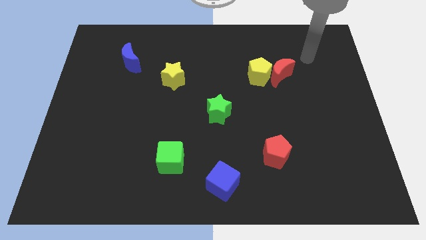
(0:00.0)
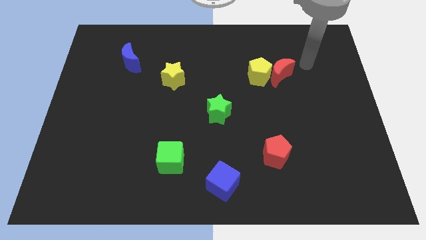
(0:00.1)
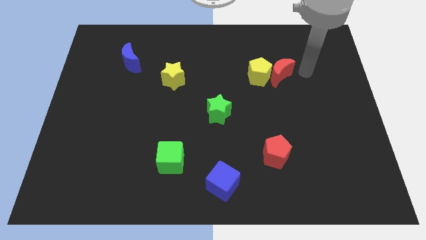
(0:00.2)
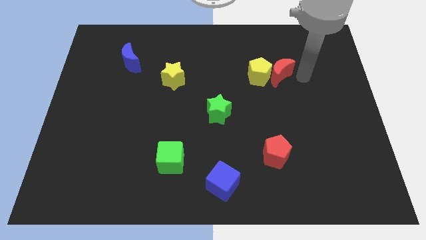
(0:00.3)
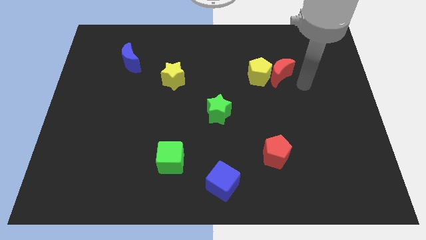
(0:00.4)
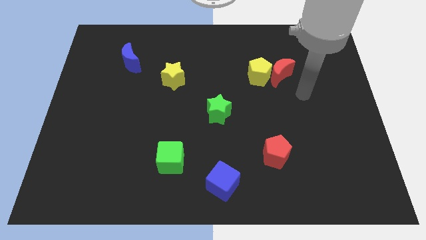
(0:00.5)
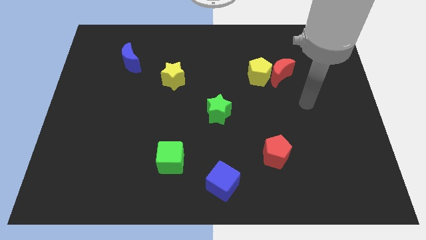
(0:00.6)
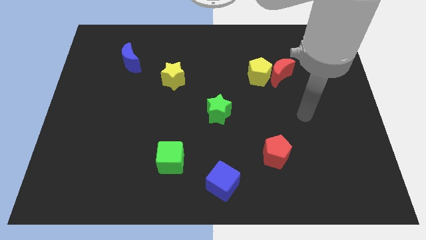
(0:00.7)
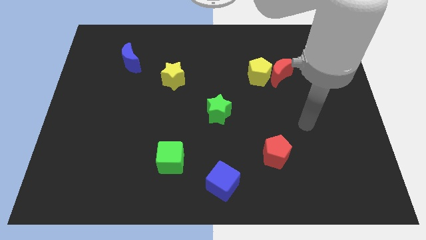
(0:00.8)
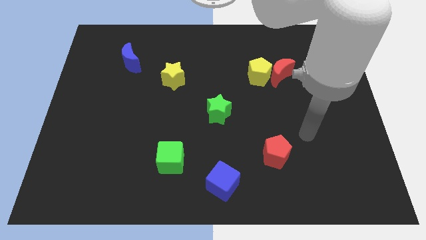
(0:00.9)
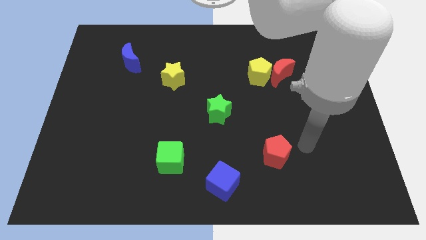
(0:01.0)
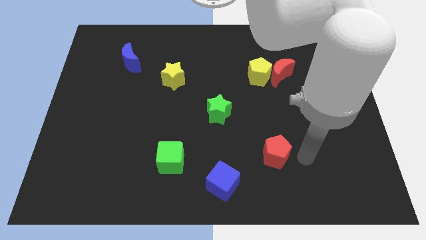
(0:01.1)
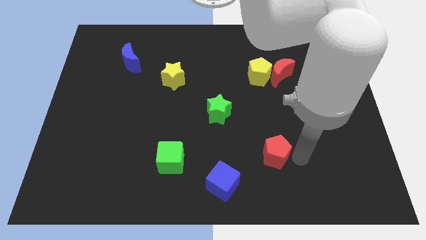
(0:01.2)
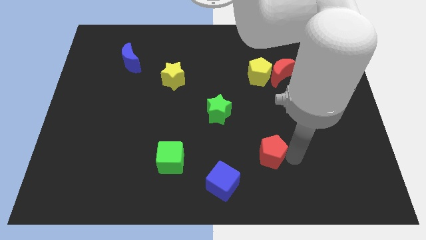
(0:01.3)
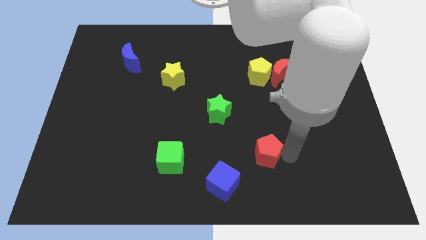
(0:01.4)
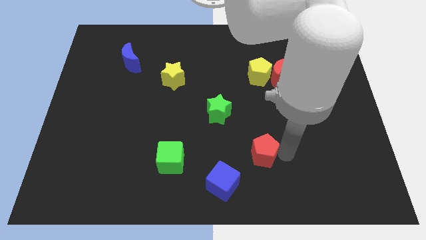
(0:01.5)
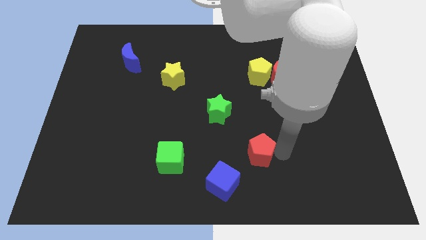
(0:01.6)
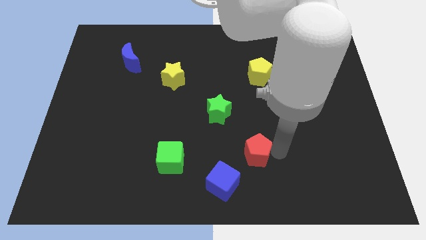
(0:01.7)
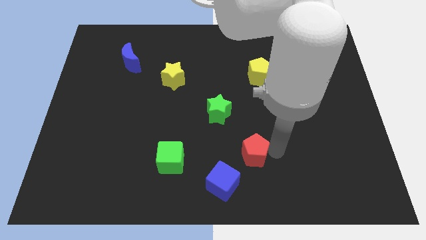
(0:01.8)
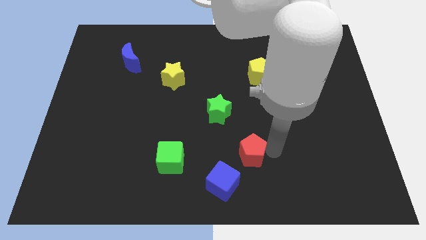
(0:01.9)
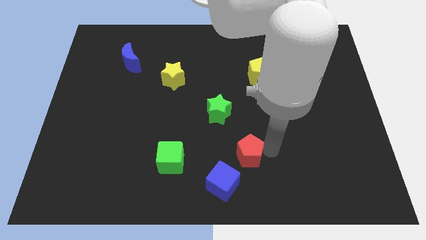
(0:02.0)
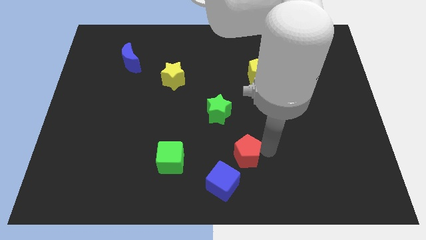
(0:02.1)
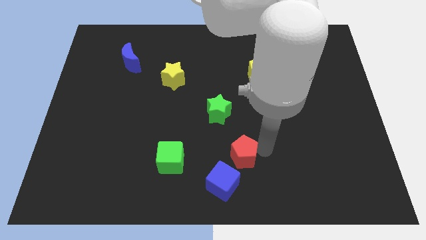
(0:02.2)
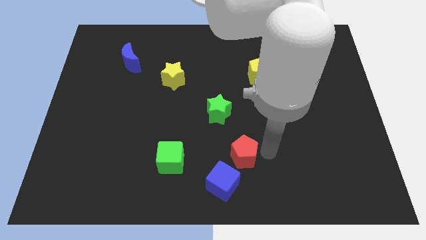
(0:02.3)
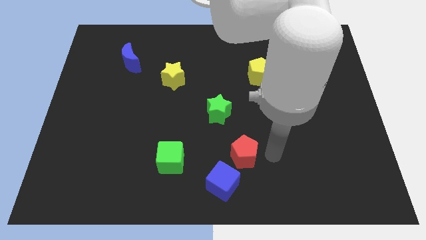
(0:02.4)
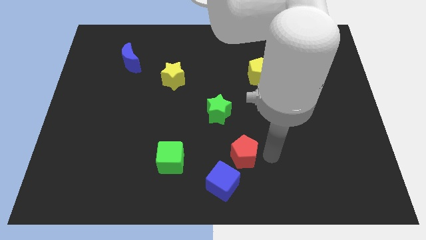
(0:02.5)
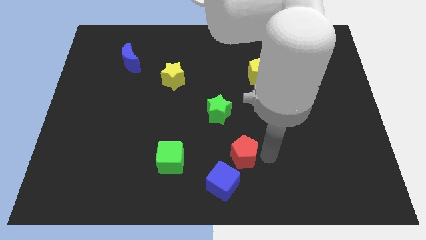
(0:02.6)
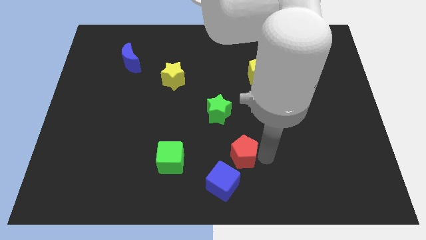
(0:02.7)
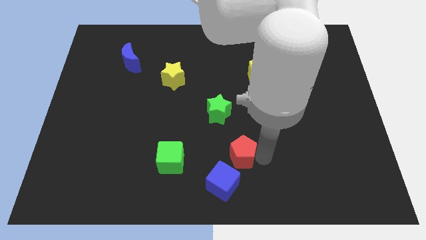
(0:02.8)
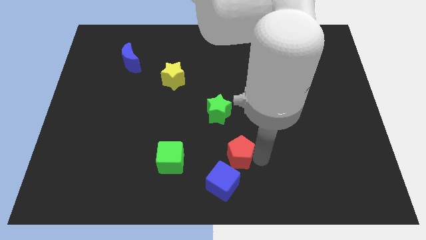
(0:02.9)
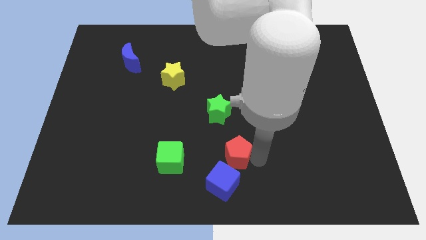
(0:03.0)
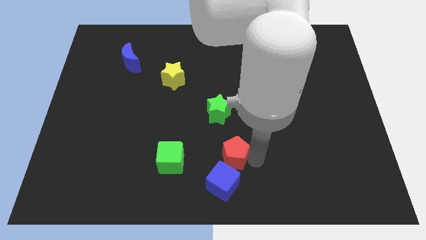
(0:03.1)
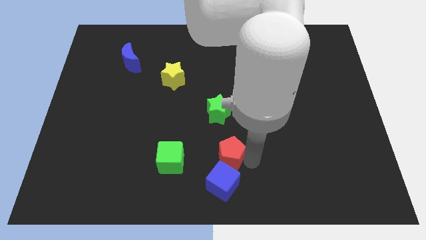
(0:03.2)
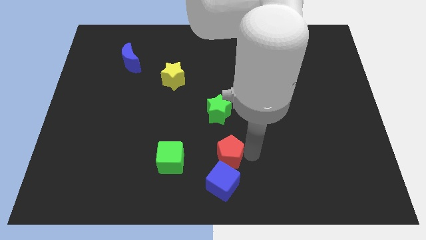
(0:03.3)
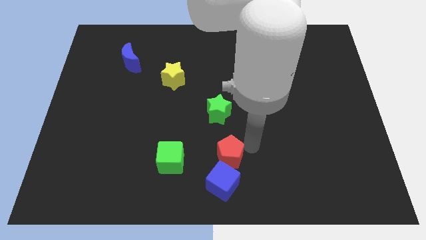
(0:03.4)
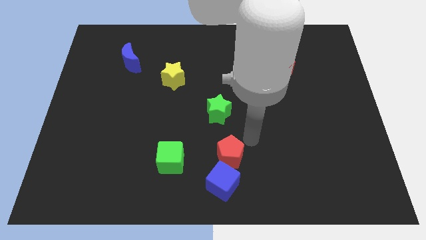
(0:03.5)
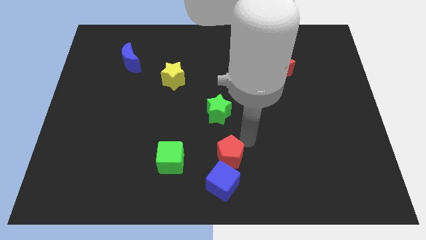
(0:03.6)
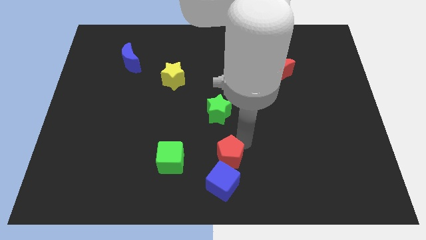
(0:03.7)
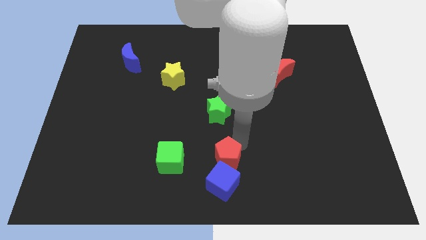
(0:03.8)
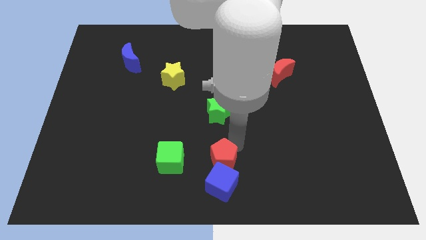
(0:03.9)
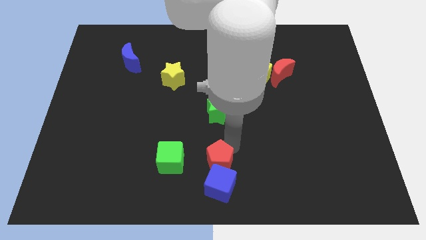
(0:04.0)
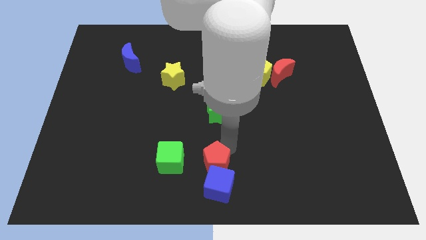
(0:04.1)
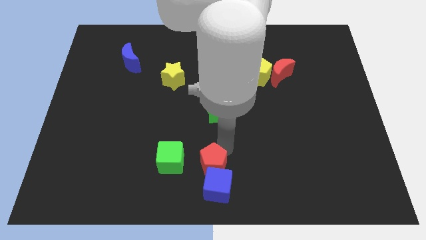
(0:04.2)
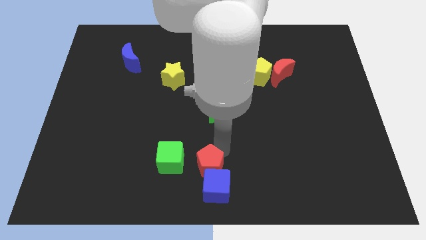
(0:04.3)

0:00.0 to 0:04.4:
put the red pentagon to the bottom right of the green cube

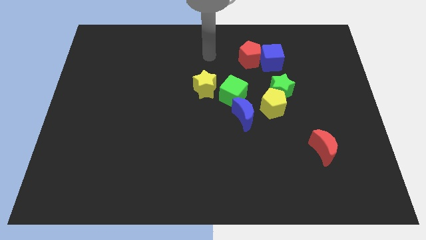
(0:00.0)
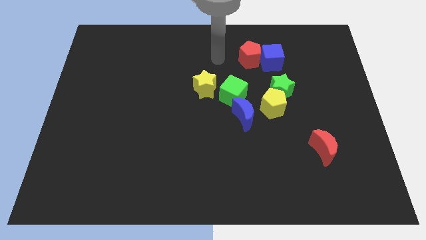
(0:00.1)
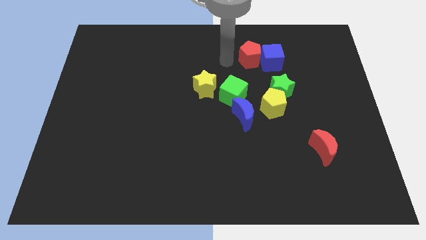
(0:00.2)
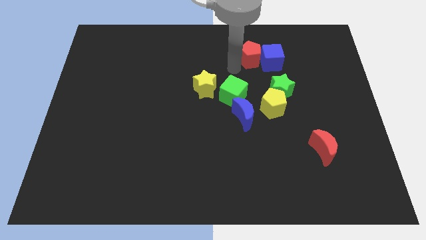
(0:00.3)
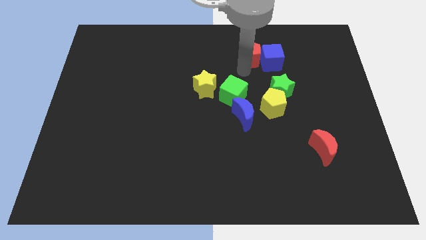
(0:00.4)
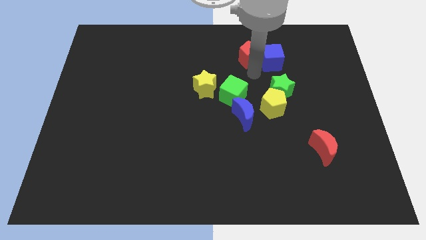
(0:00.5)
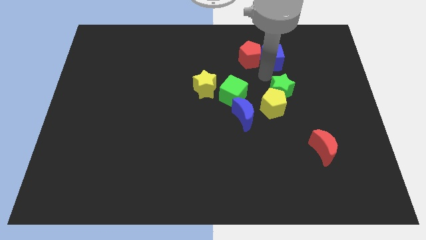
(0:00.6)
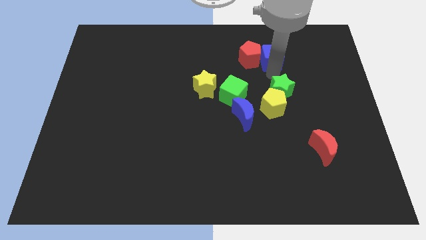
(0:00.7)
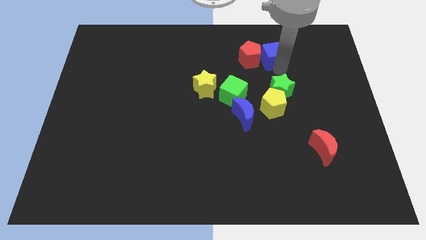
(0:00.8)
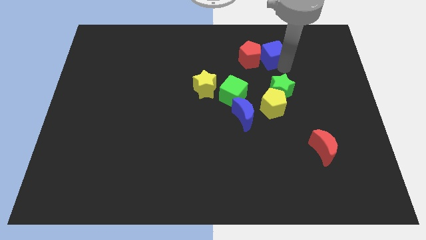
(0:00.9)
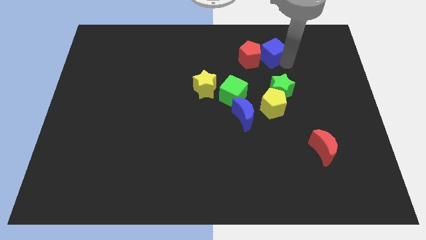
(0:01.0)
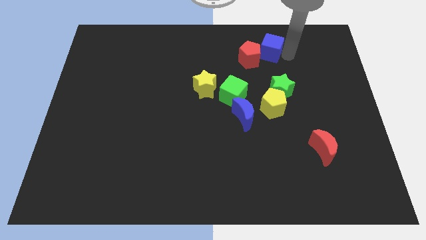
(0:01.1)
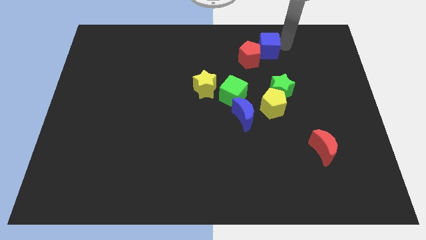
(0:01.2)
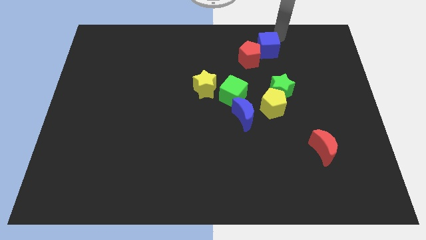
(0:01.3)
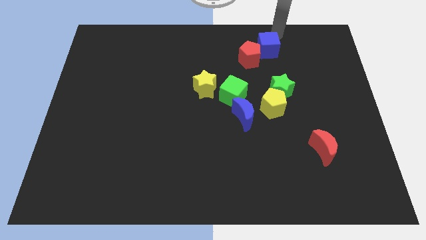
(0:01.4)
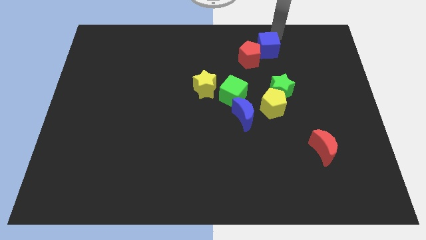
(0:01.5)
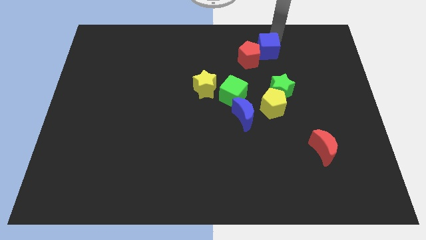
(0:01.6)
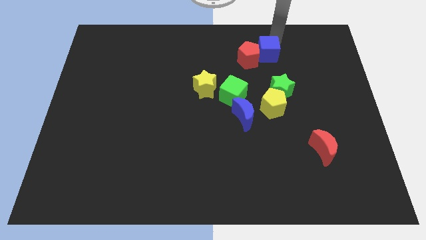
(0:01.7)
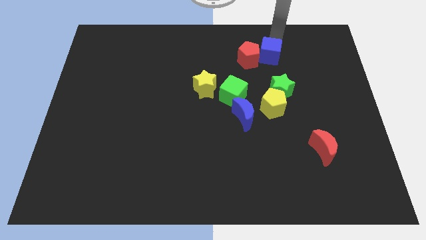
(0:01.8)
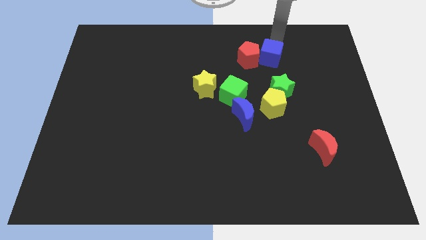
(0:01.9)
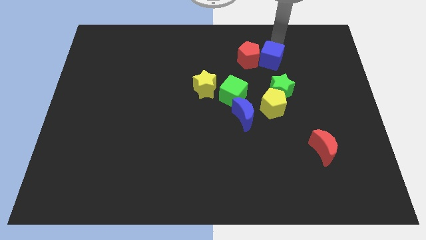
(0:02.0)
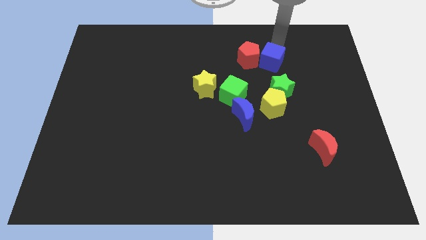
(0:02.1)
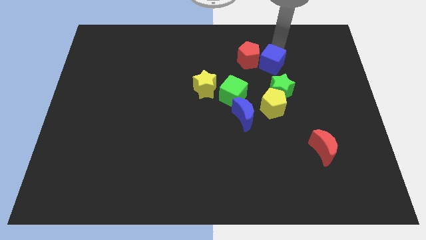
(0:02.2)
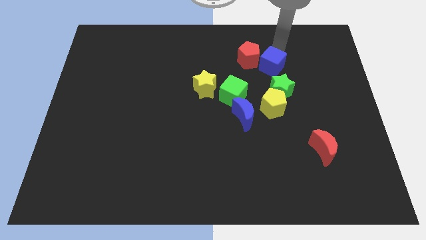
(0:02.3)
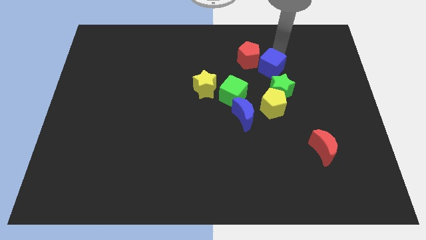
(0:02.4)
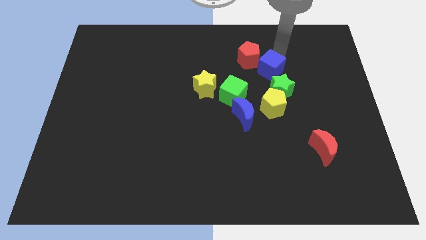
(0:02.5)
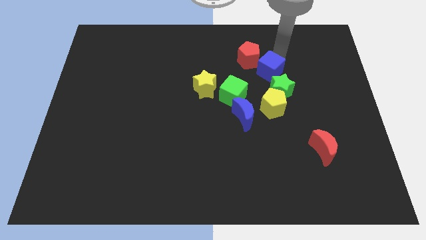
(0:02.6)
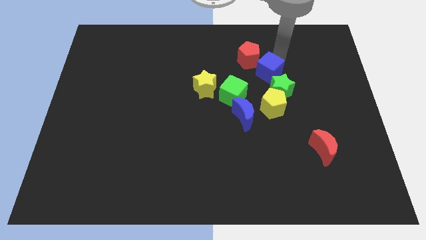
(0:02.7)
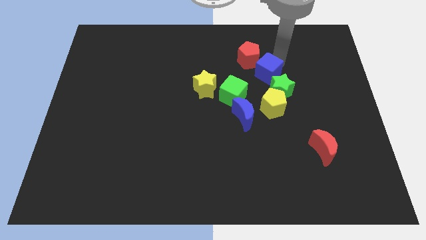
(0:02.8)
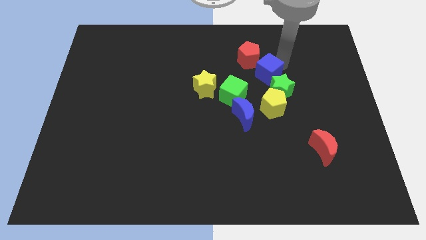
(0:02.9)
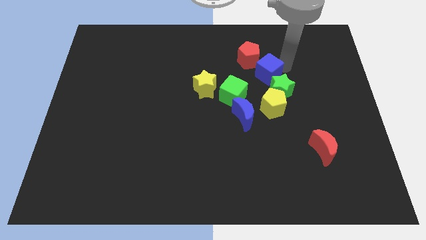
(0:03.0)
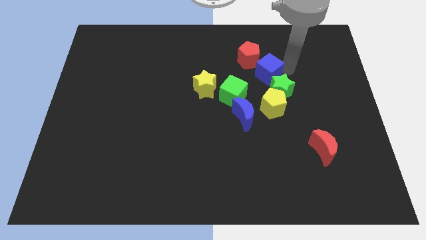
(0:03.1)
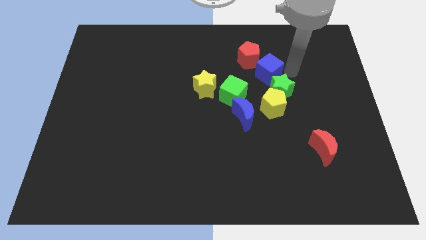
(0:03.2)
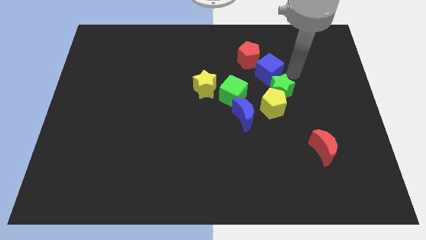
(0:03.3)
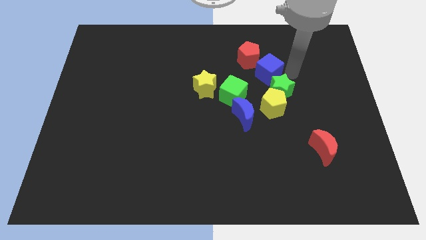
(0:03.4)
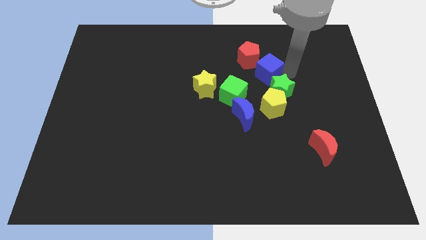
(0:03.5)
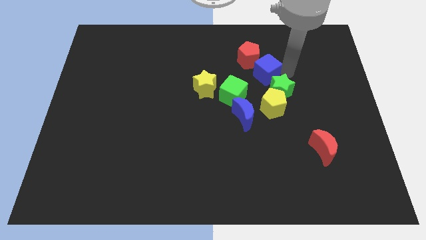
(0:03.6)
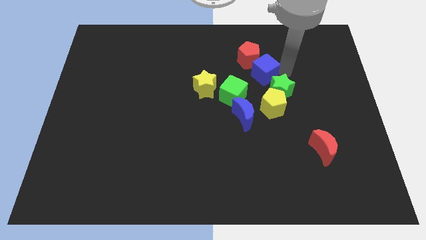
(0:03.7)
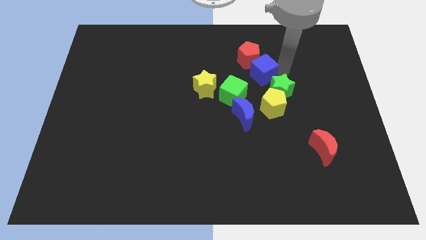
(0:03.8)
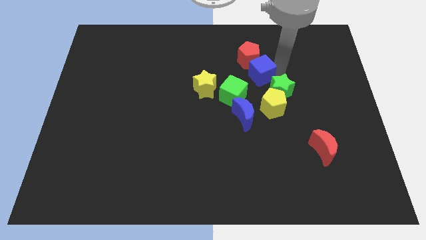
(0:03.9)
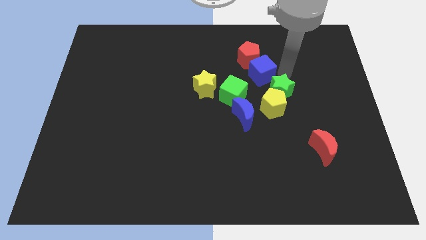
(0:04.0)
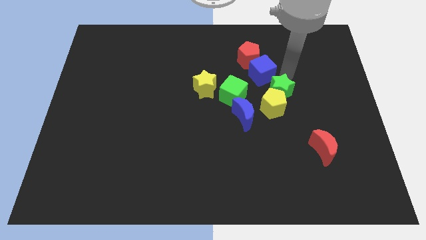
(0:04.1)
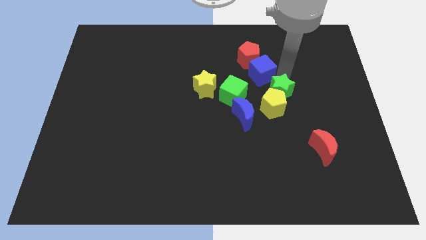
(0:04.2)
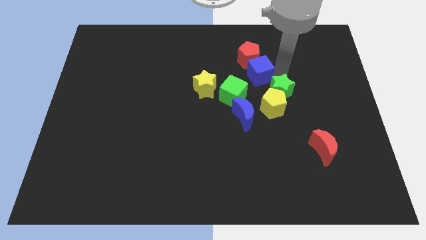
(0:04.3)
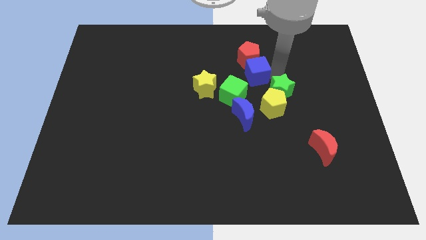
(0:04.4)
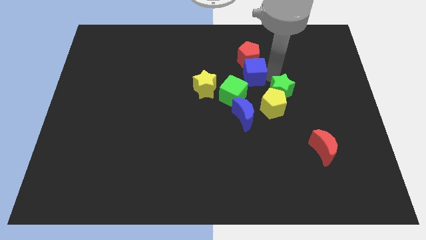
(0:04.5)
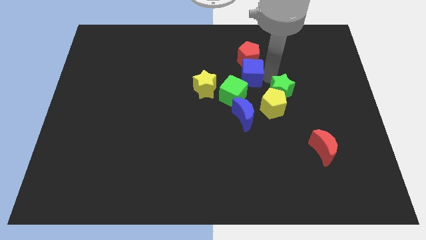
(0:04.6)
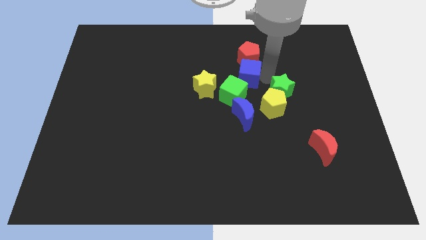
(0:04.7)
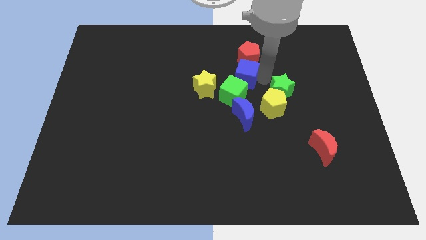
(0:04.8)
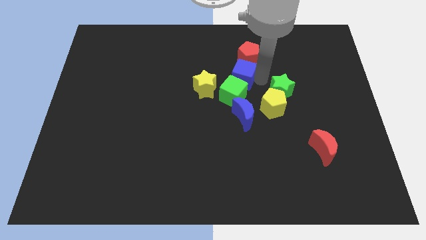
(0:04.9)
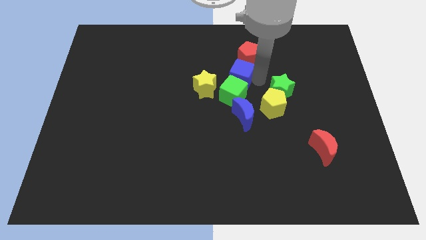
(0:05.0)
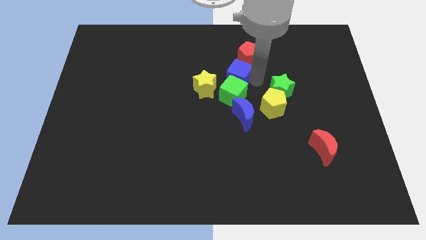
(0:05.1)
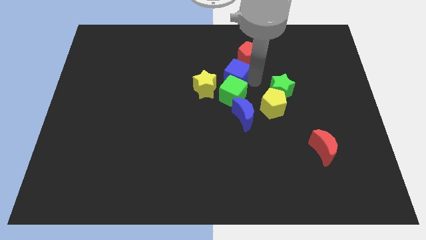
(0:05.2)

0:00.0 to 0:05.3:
move the blue cube diagonally up and to the left of the green cube
